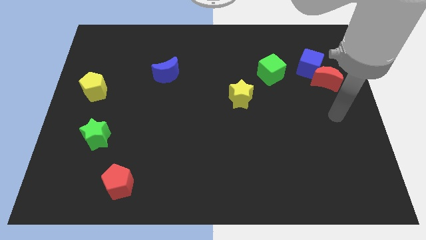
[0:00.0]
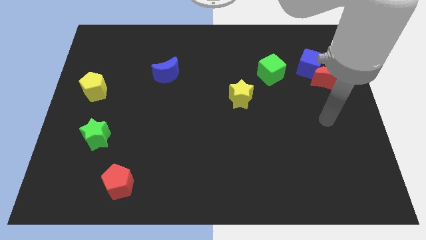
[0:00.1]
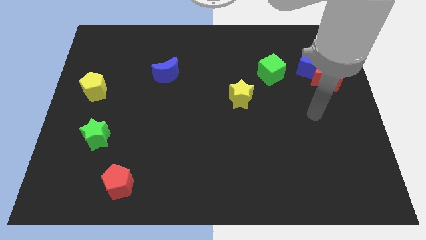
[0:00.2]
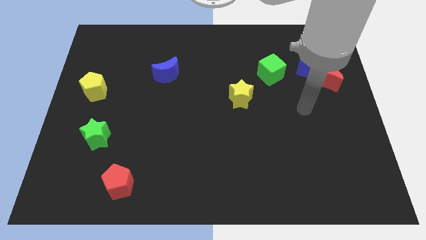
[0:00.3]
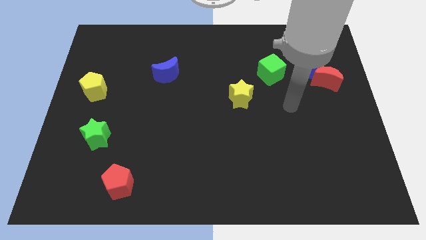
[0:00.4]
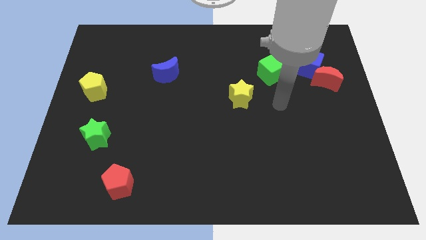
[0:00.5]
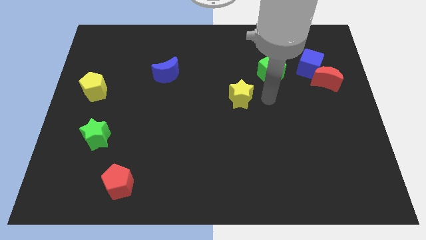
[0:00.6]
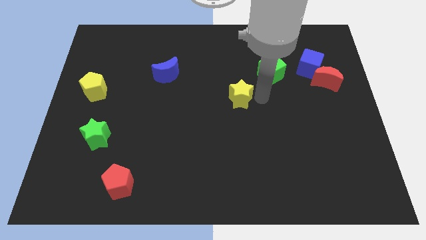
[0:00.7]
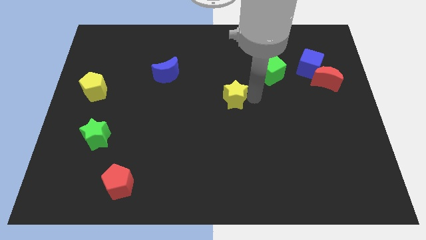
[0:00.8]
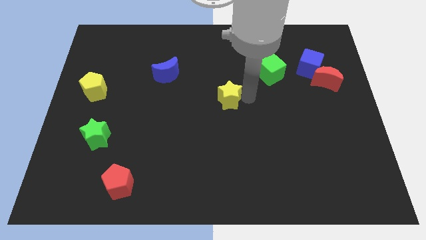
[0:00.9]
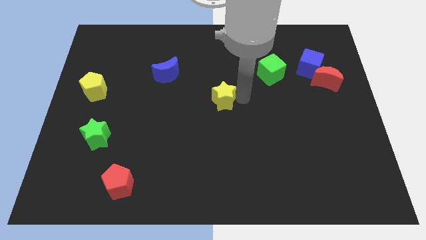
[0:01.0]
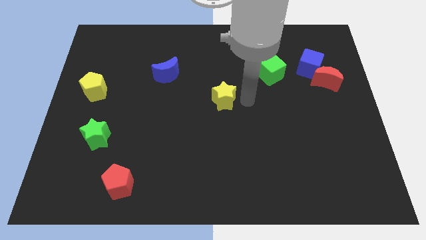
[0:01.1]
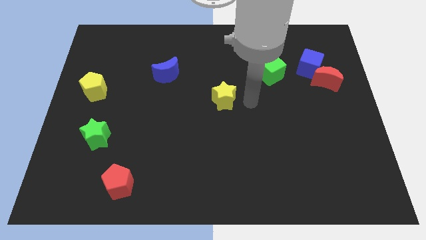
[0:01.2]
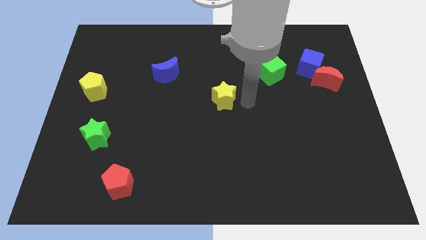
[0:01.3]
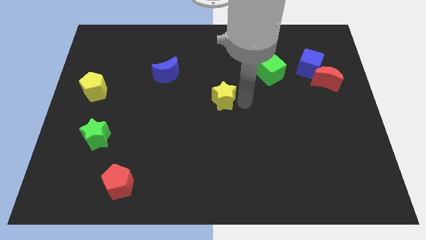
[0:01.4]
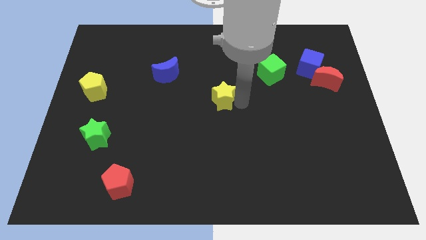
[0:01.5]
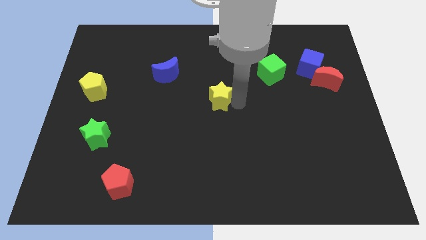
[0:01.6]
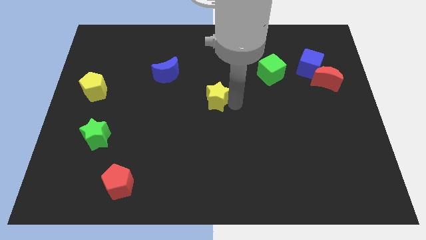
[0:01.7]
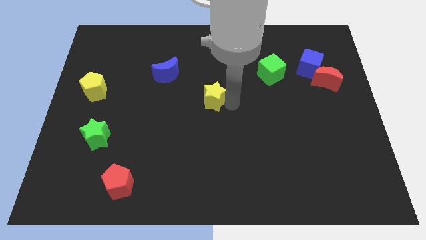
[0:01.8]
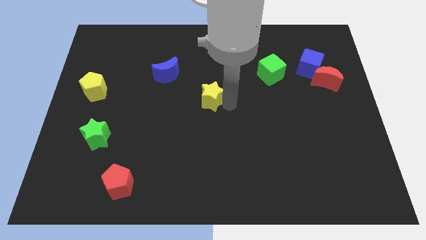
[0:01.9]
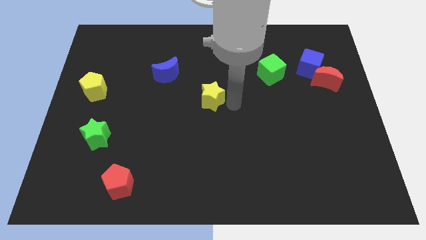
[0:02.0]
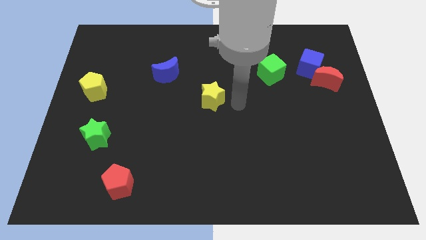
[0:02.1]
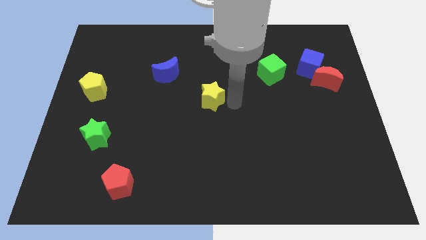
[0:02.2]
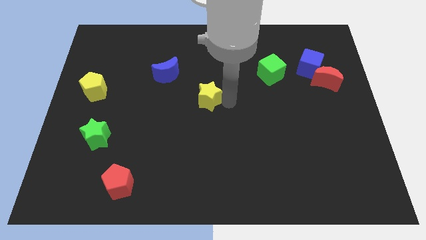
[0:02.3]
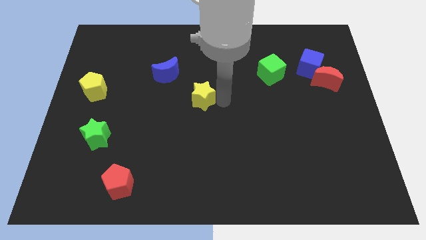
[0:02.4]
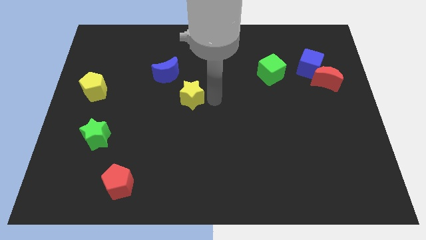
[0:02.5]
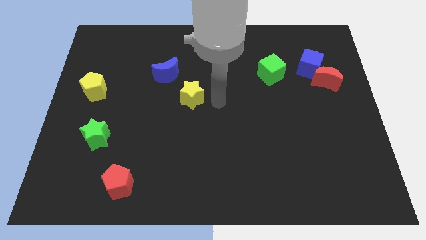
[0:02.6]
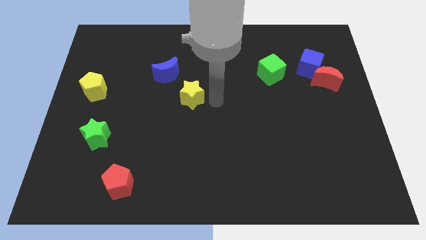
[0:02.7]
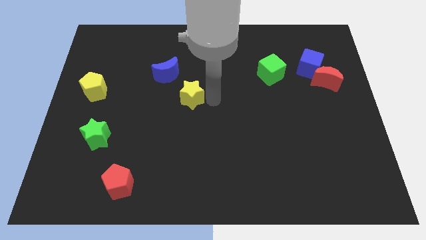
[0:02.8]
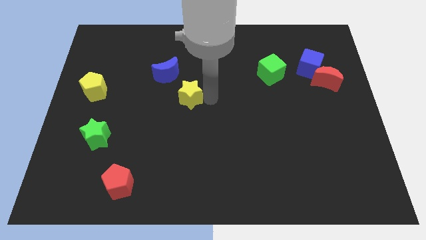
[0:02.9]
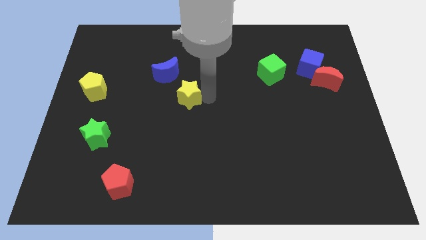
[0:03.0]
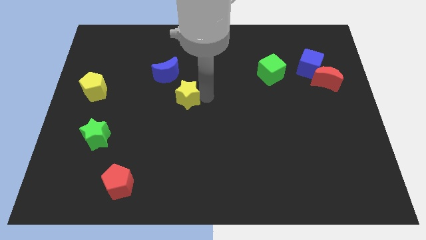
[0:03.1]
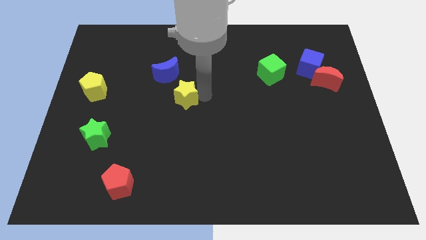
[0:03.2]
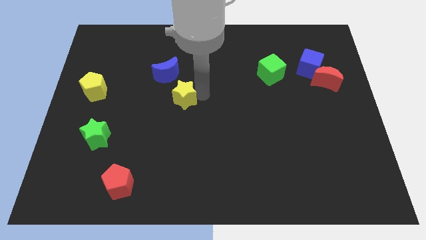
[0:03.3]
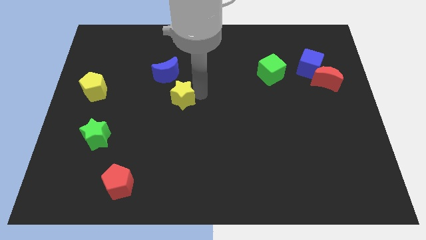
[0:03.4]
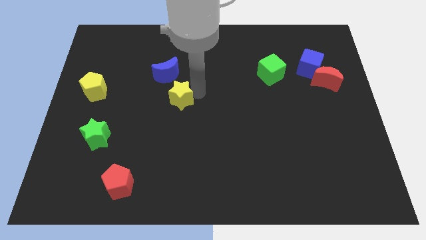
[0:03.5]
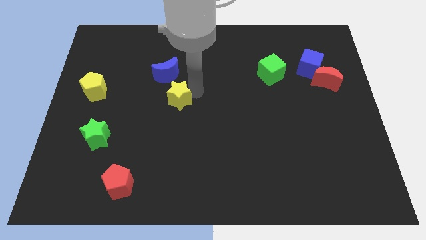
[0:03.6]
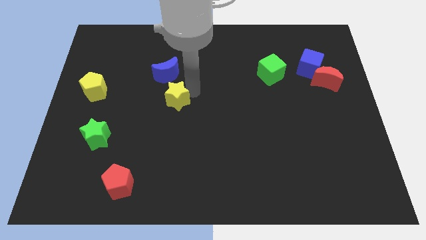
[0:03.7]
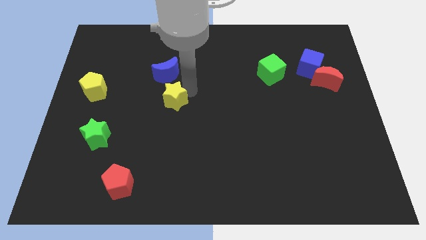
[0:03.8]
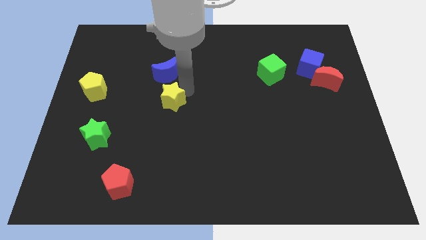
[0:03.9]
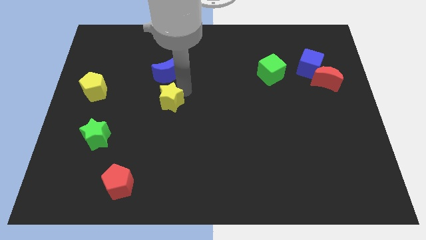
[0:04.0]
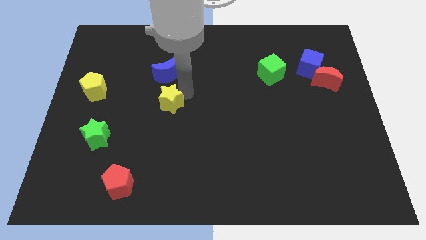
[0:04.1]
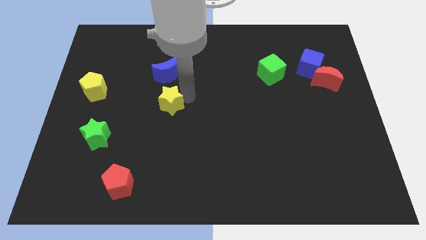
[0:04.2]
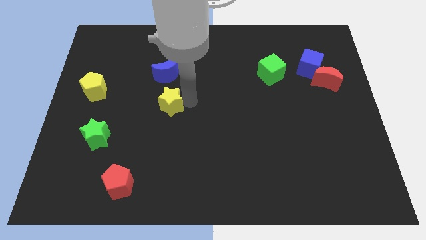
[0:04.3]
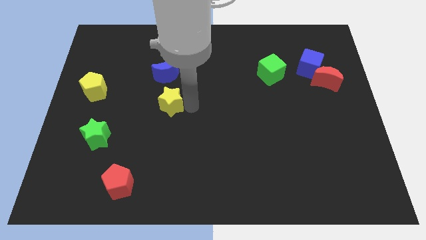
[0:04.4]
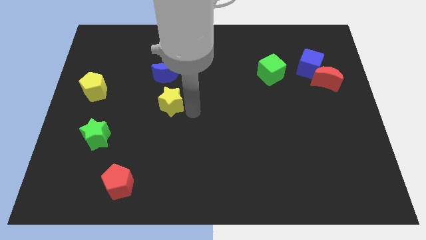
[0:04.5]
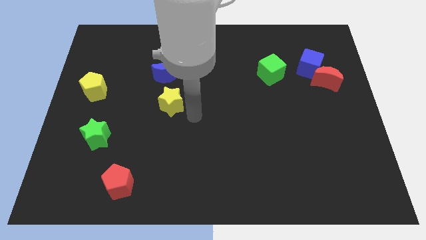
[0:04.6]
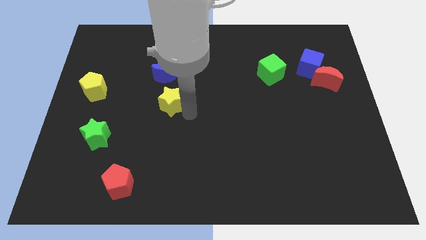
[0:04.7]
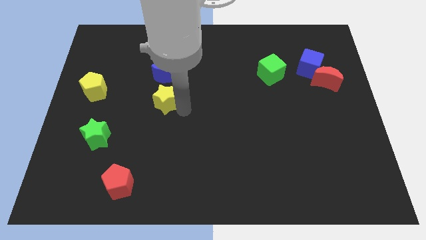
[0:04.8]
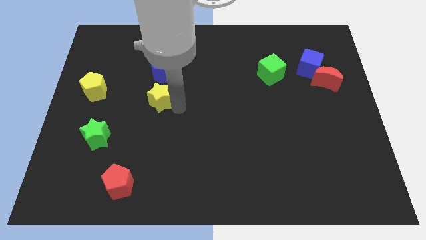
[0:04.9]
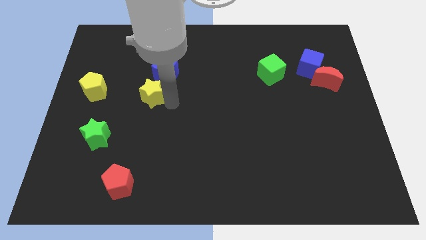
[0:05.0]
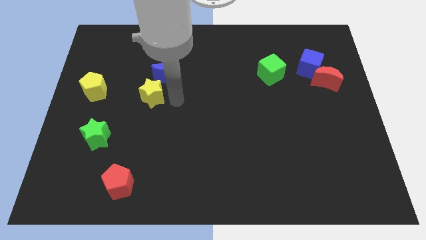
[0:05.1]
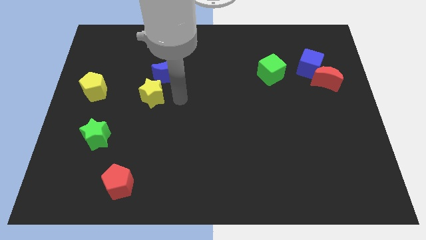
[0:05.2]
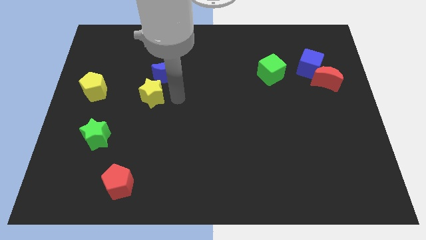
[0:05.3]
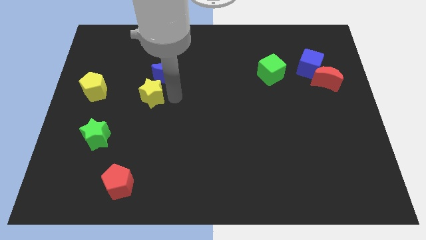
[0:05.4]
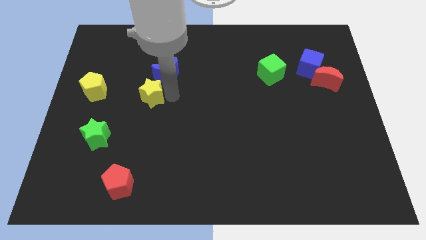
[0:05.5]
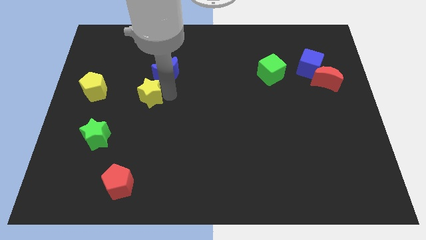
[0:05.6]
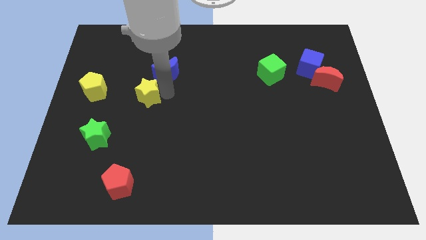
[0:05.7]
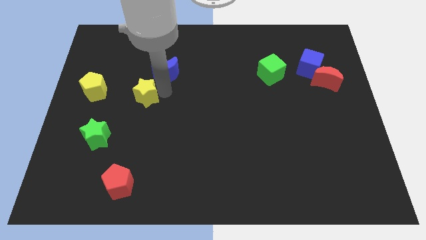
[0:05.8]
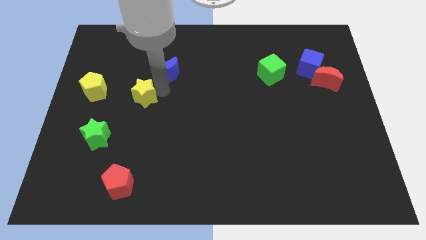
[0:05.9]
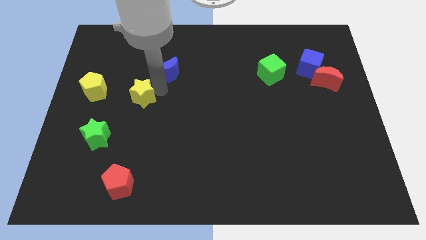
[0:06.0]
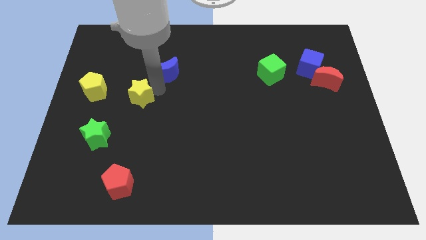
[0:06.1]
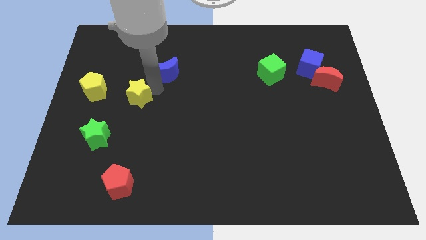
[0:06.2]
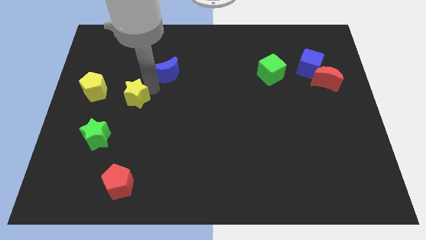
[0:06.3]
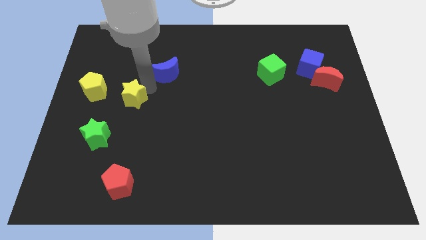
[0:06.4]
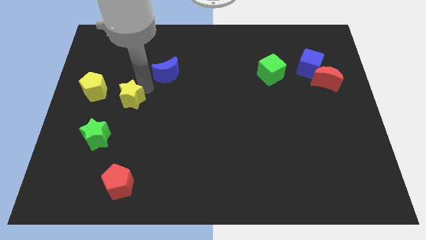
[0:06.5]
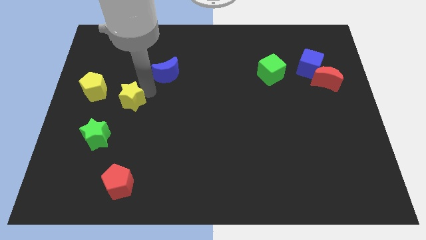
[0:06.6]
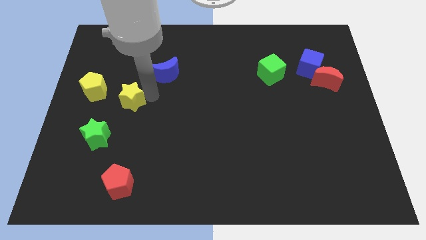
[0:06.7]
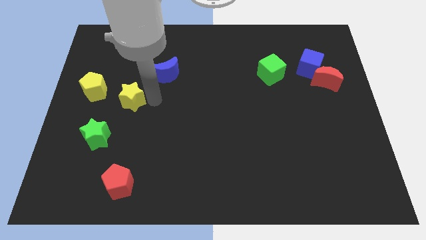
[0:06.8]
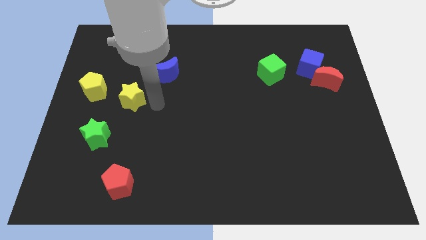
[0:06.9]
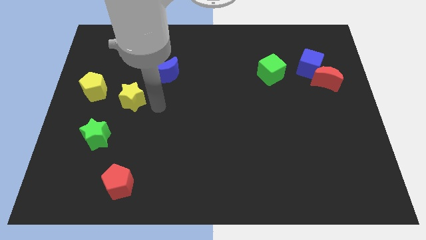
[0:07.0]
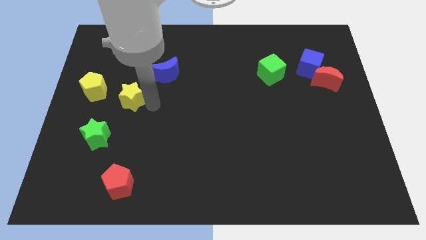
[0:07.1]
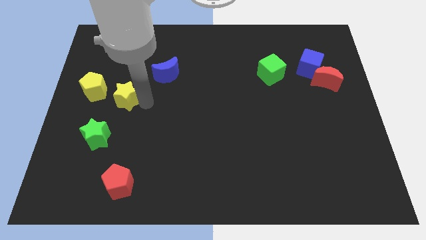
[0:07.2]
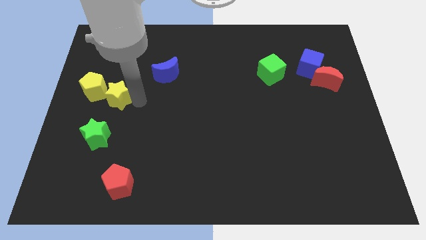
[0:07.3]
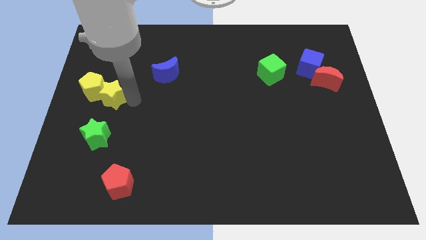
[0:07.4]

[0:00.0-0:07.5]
push the yellow star to the yellow pentagon
